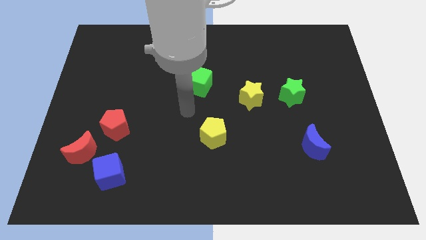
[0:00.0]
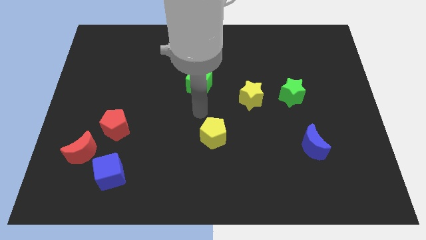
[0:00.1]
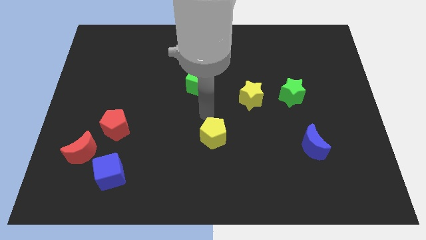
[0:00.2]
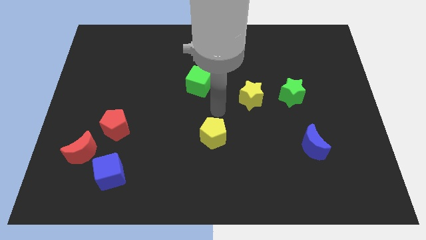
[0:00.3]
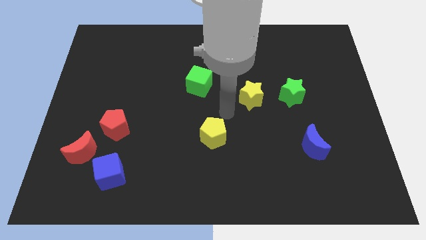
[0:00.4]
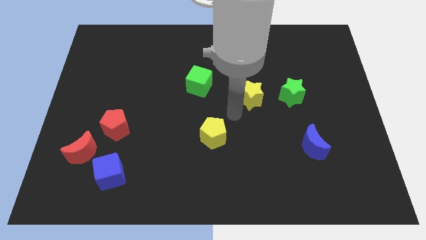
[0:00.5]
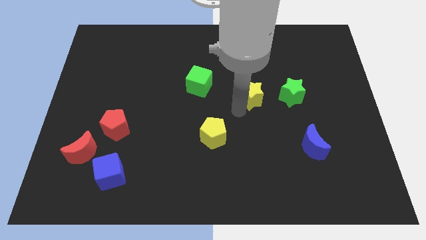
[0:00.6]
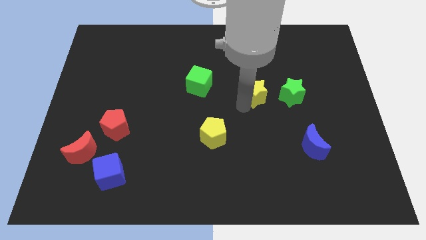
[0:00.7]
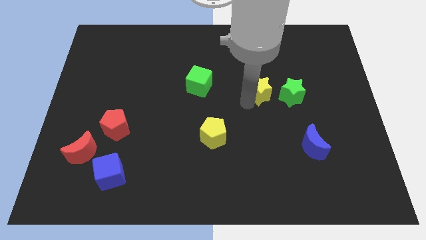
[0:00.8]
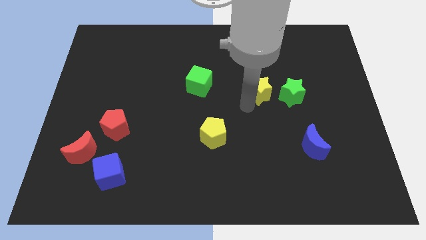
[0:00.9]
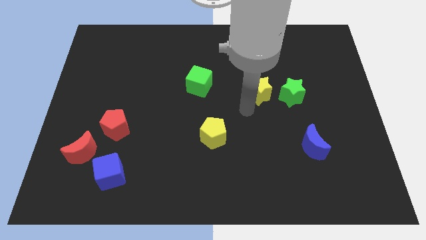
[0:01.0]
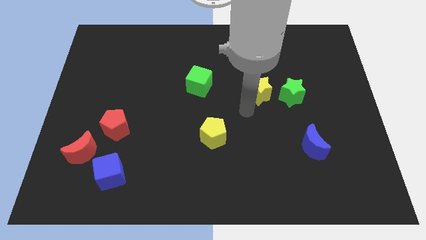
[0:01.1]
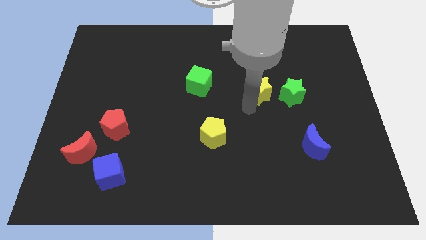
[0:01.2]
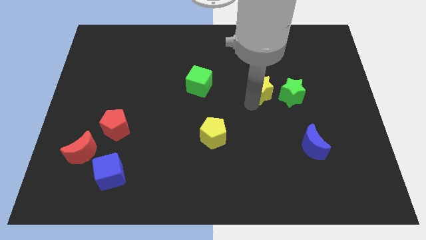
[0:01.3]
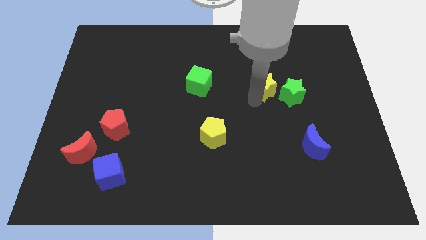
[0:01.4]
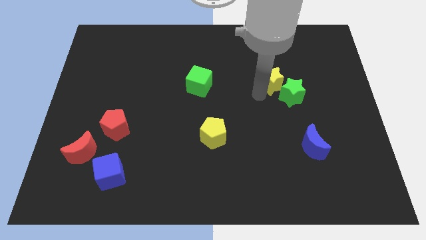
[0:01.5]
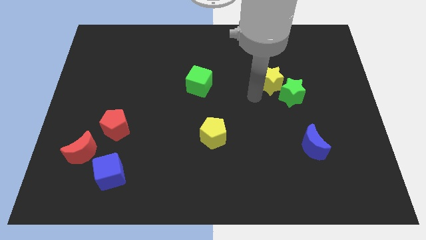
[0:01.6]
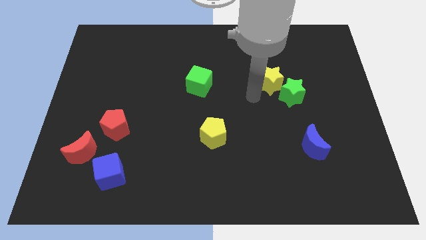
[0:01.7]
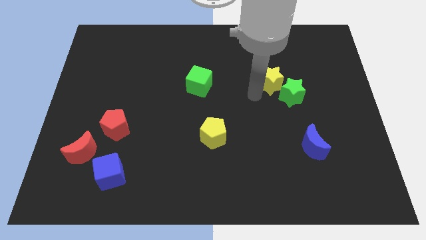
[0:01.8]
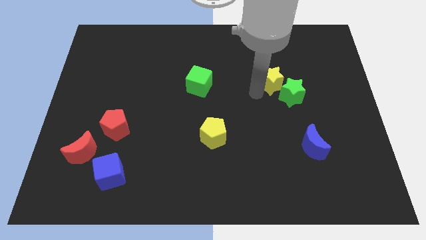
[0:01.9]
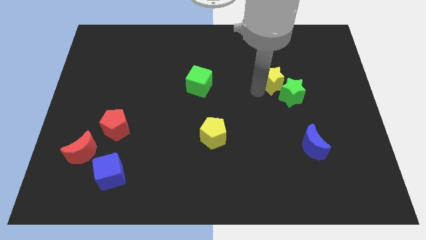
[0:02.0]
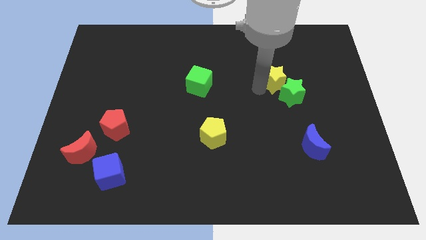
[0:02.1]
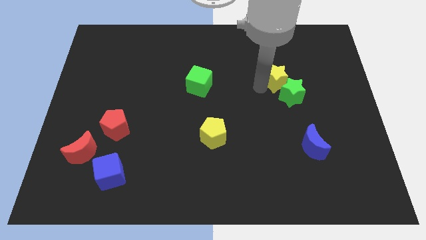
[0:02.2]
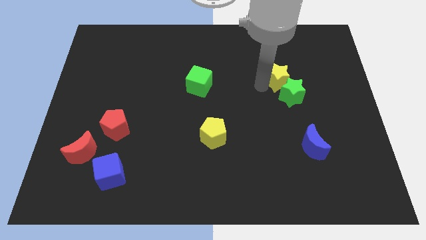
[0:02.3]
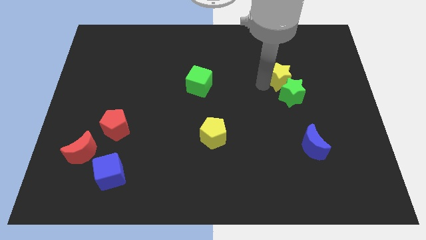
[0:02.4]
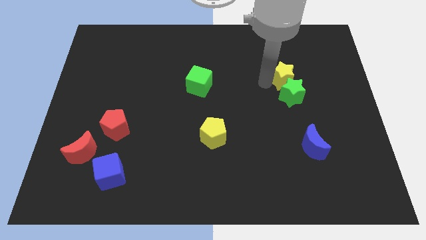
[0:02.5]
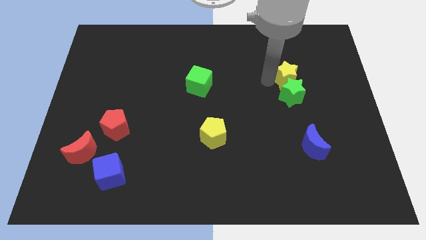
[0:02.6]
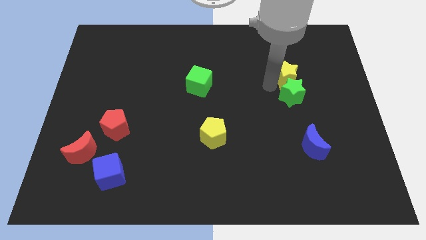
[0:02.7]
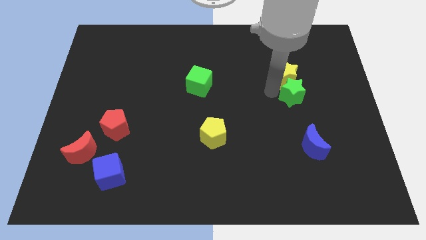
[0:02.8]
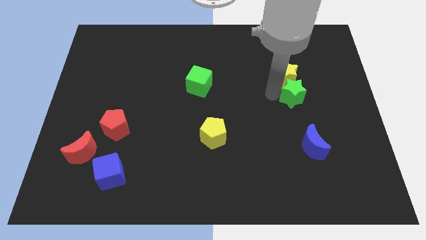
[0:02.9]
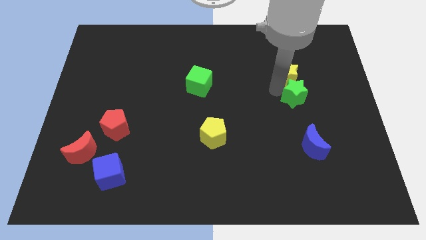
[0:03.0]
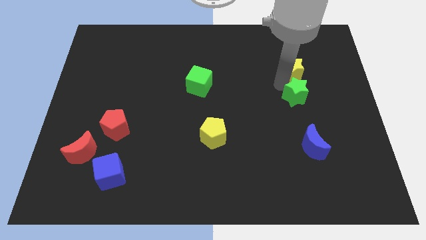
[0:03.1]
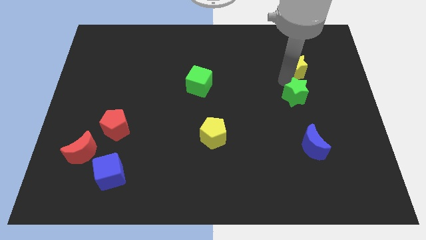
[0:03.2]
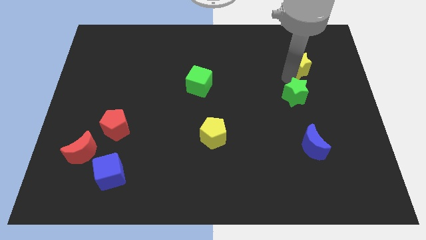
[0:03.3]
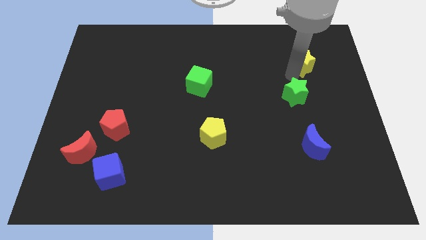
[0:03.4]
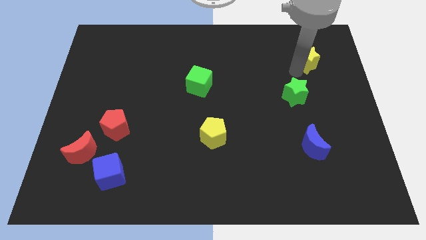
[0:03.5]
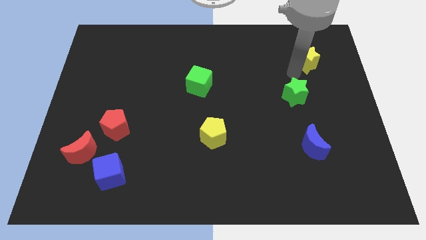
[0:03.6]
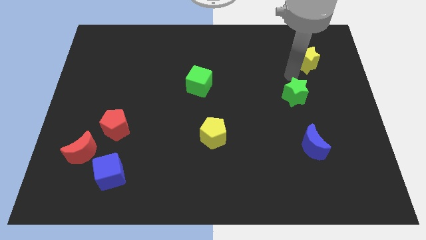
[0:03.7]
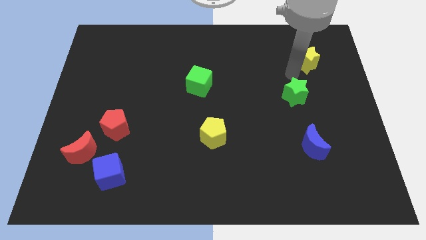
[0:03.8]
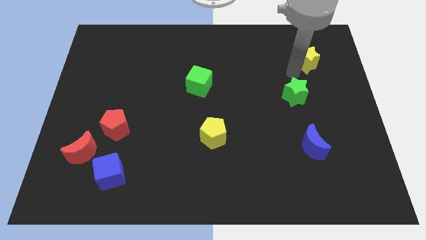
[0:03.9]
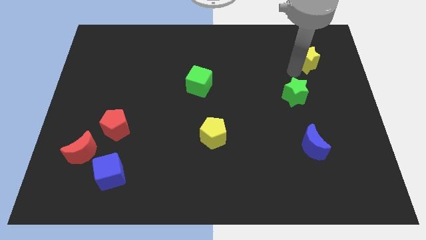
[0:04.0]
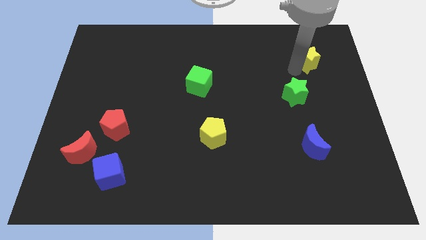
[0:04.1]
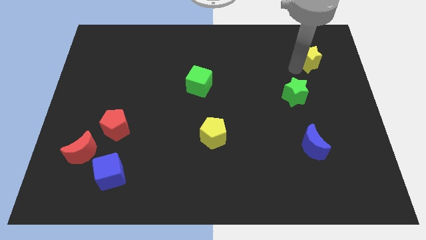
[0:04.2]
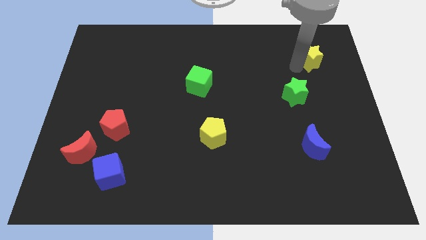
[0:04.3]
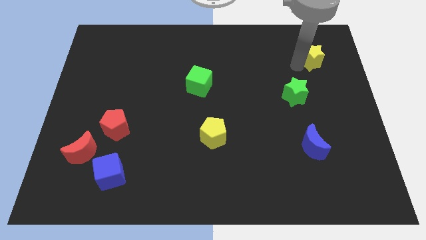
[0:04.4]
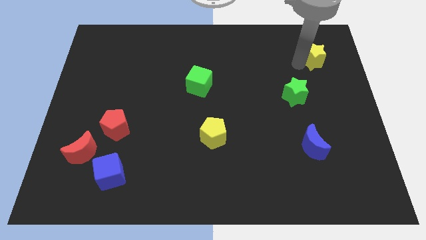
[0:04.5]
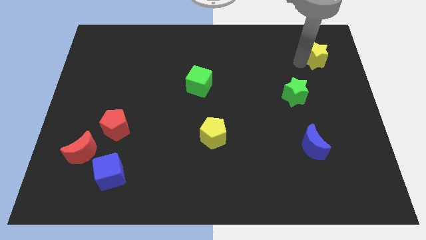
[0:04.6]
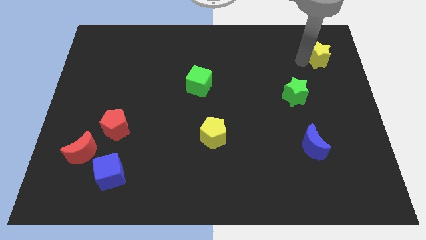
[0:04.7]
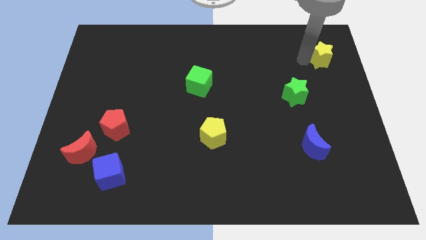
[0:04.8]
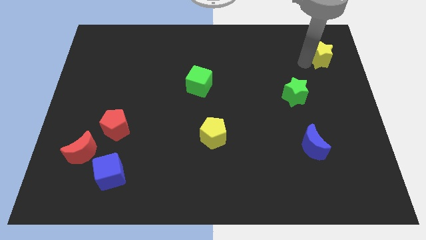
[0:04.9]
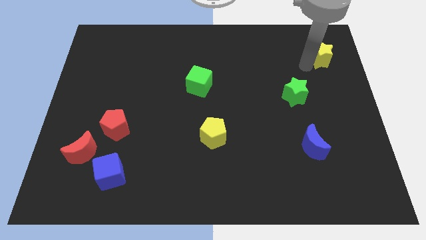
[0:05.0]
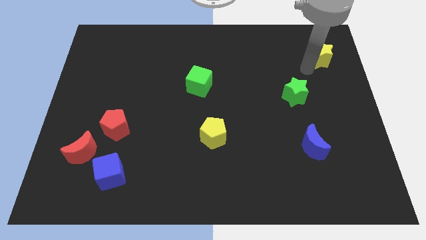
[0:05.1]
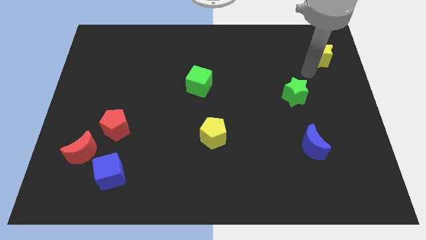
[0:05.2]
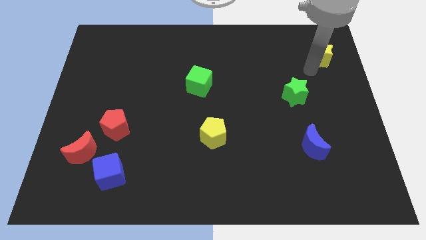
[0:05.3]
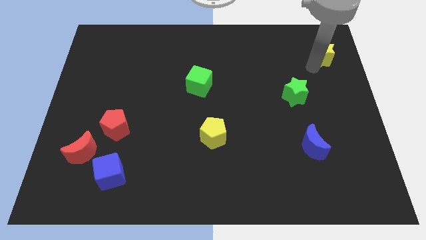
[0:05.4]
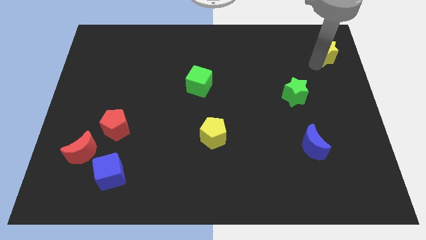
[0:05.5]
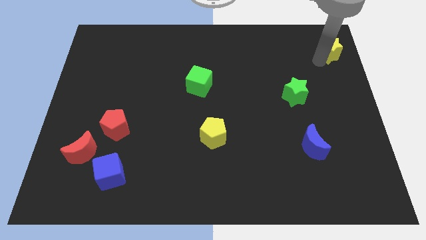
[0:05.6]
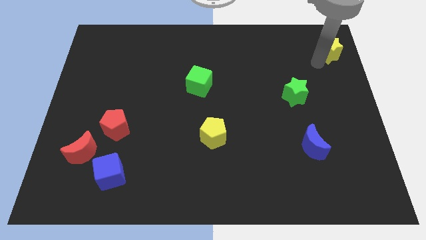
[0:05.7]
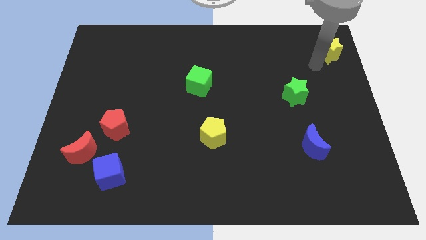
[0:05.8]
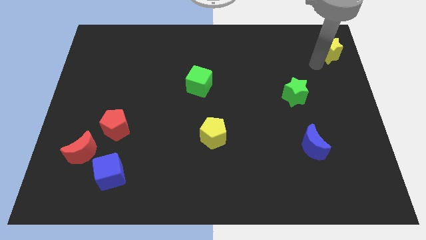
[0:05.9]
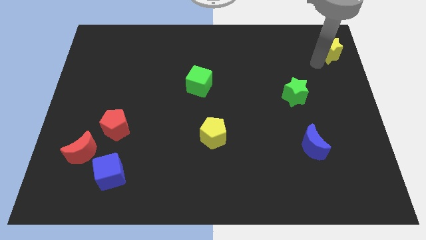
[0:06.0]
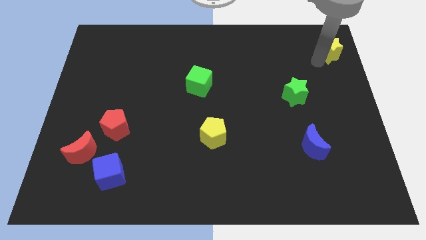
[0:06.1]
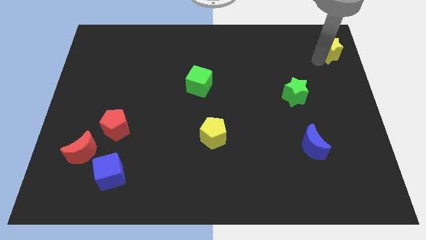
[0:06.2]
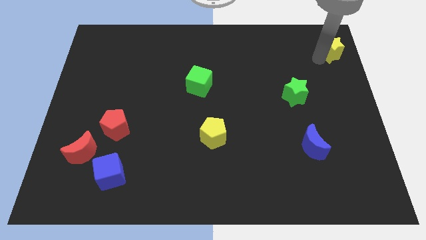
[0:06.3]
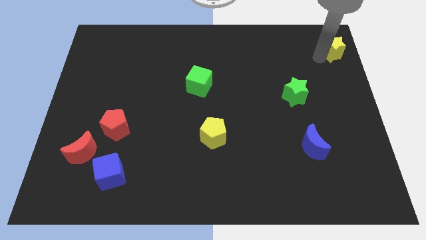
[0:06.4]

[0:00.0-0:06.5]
move the yellow star to the top right of the board
